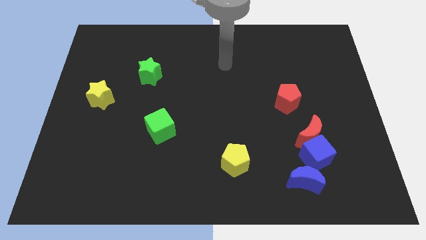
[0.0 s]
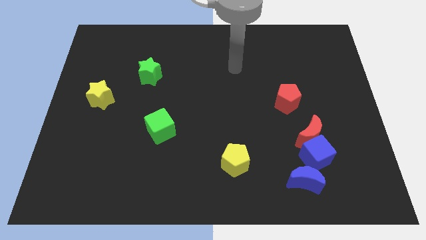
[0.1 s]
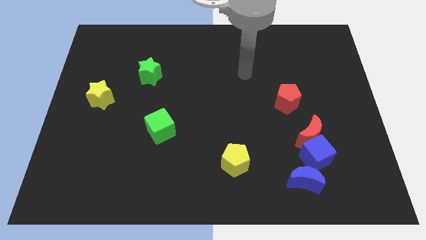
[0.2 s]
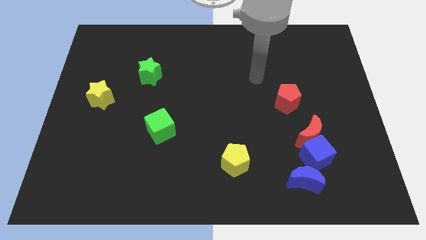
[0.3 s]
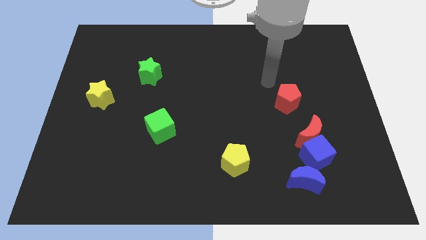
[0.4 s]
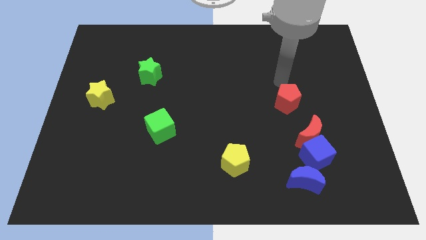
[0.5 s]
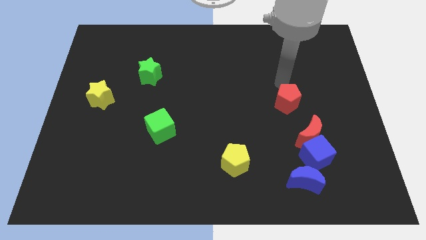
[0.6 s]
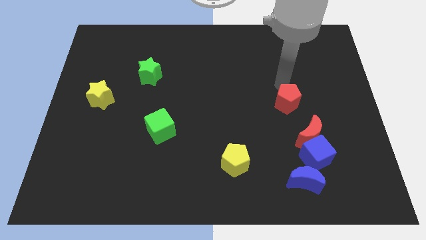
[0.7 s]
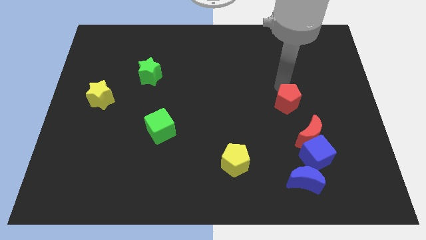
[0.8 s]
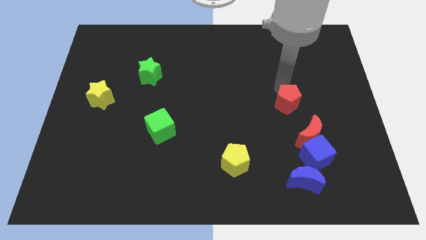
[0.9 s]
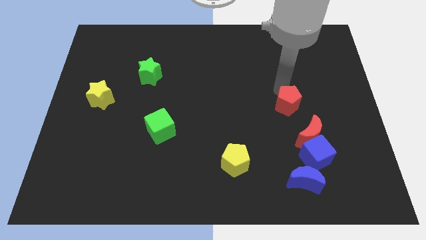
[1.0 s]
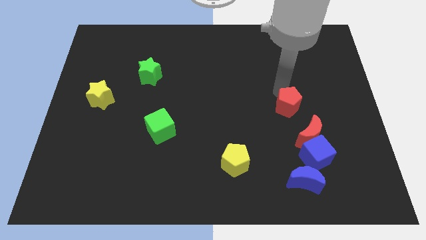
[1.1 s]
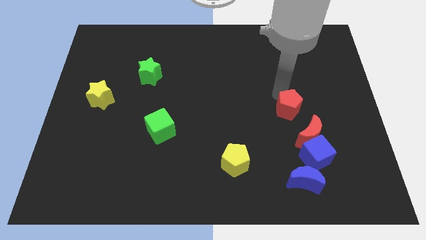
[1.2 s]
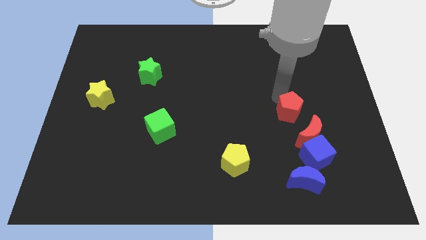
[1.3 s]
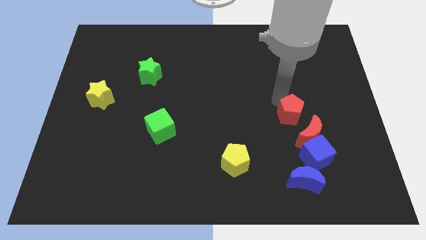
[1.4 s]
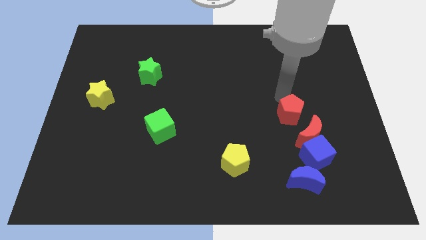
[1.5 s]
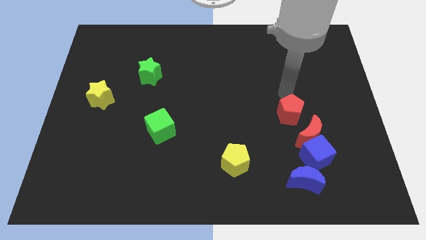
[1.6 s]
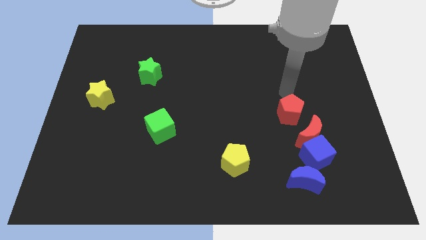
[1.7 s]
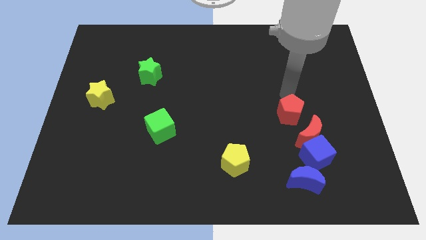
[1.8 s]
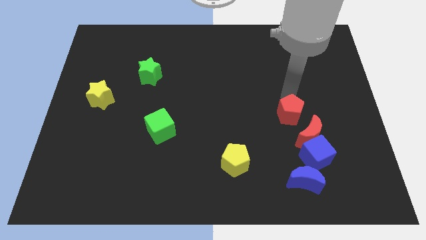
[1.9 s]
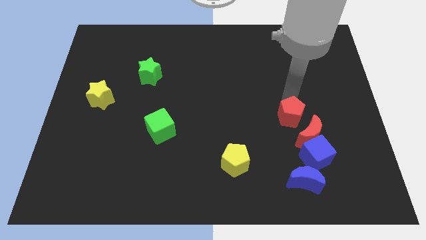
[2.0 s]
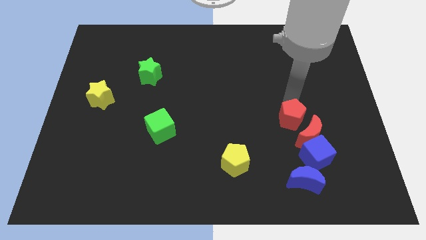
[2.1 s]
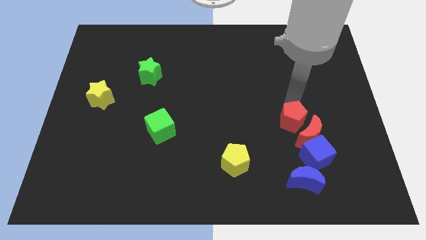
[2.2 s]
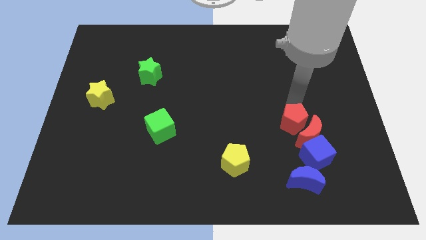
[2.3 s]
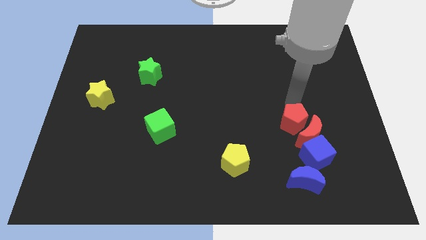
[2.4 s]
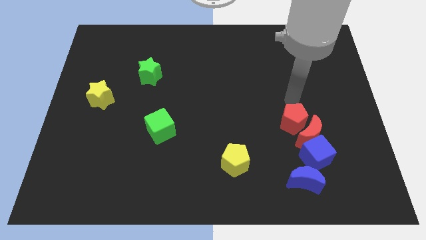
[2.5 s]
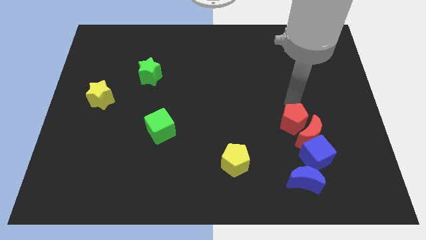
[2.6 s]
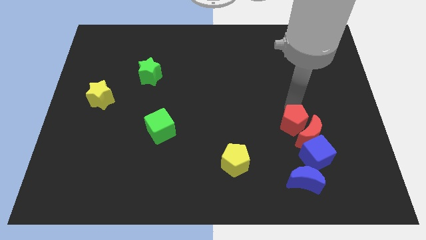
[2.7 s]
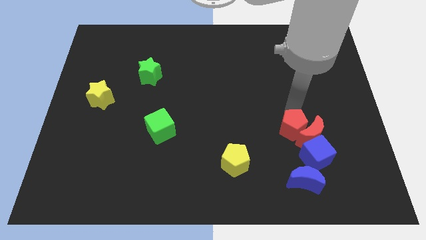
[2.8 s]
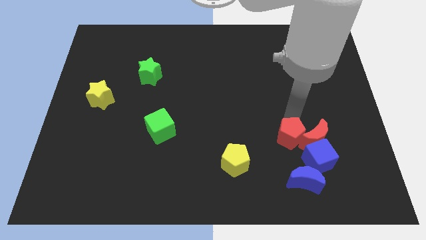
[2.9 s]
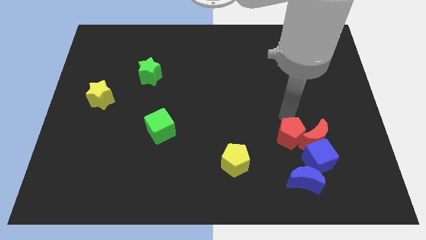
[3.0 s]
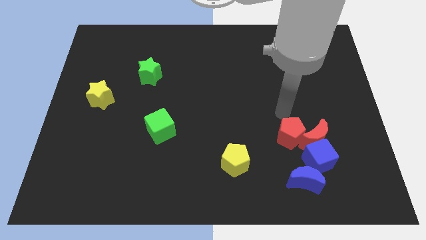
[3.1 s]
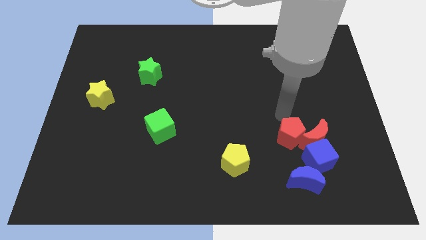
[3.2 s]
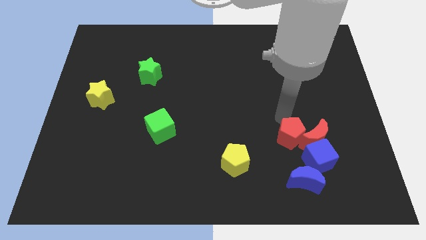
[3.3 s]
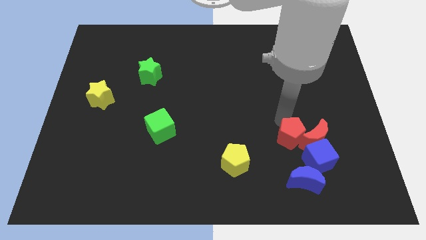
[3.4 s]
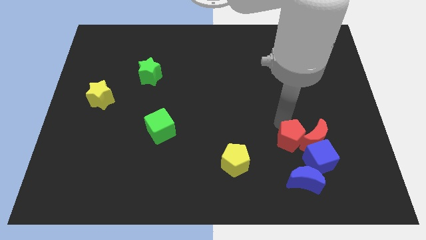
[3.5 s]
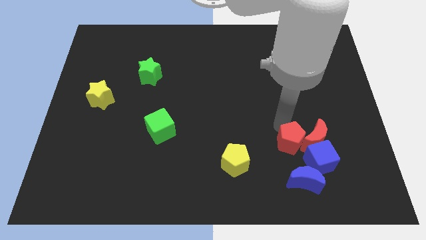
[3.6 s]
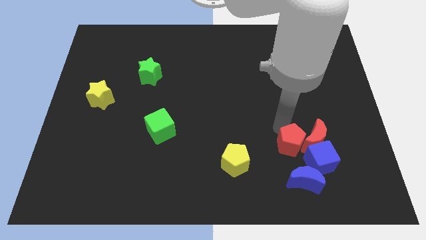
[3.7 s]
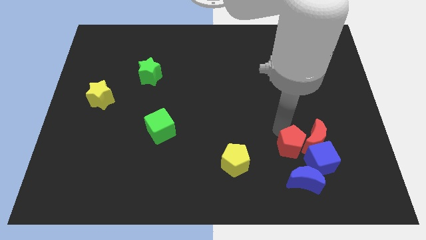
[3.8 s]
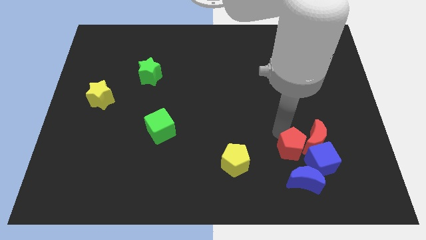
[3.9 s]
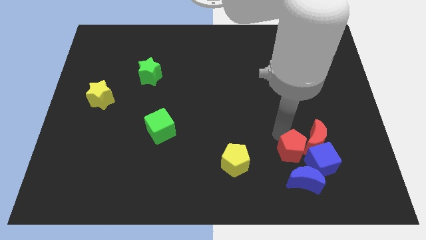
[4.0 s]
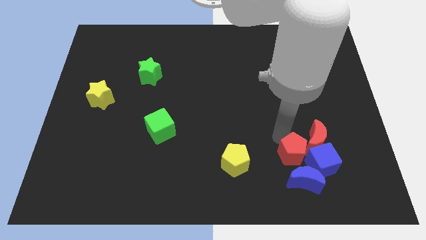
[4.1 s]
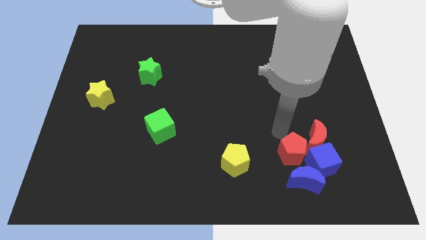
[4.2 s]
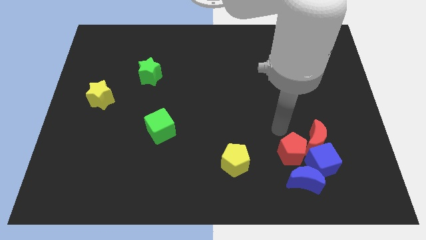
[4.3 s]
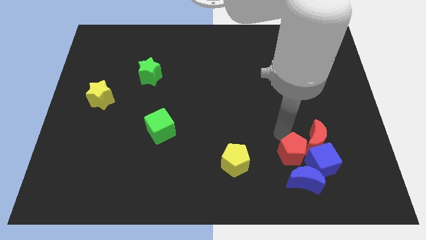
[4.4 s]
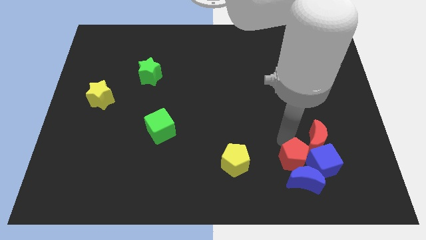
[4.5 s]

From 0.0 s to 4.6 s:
move the red pentagon towards the blue moon

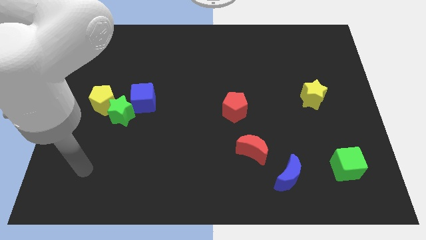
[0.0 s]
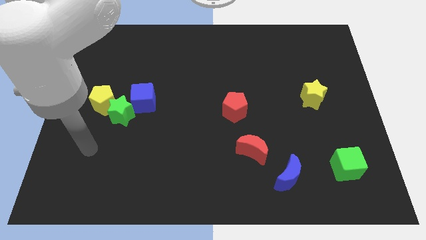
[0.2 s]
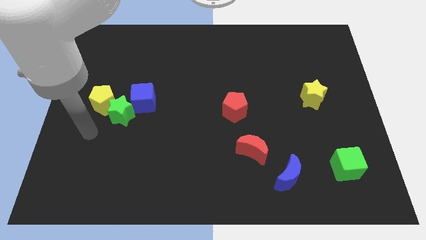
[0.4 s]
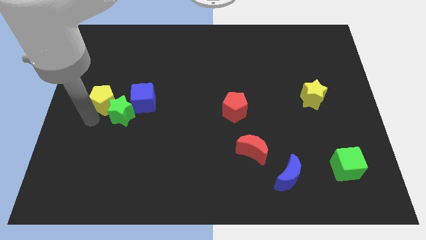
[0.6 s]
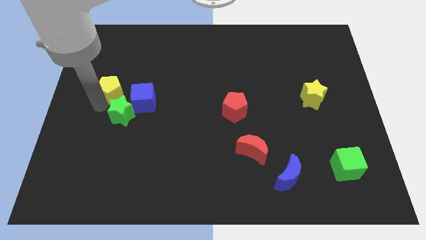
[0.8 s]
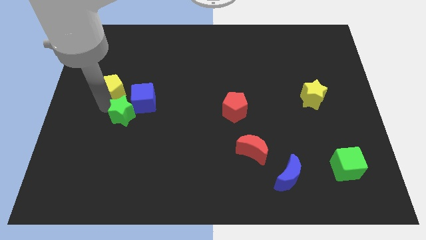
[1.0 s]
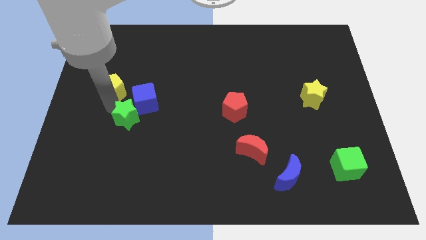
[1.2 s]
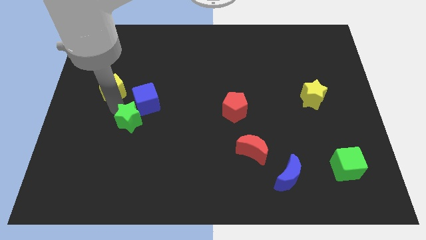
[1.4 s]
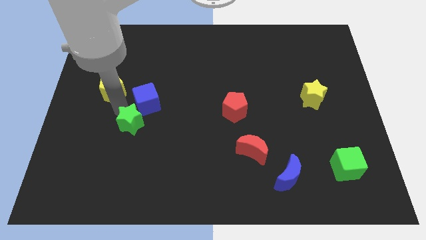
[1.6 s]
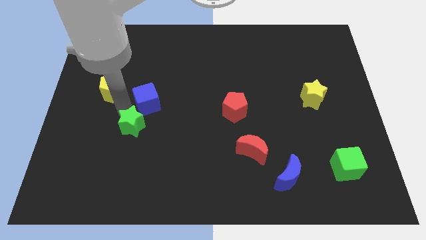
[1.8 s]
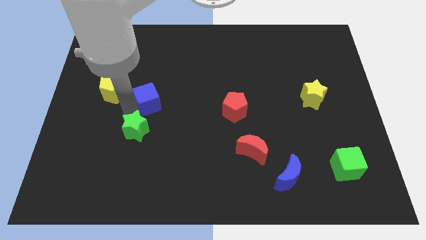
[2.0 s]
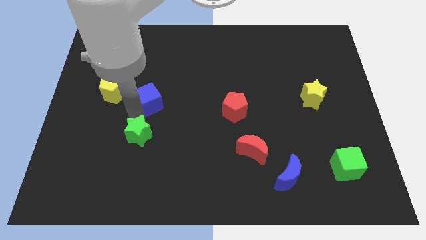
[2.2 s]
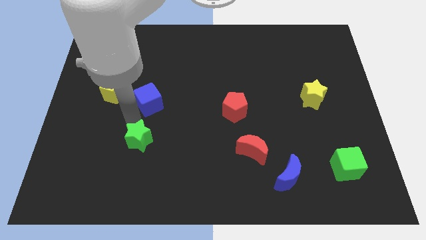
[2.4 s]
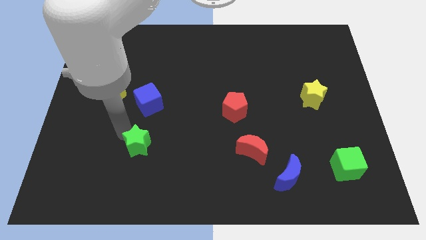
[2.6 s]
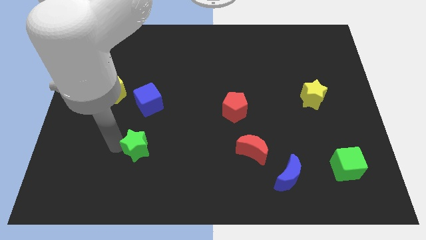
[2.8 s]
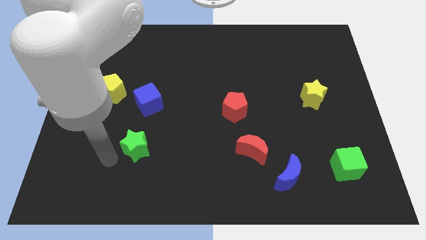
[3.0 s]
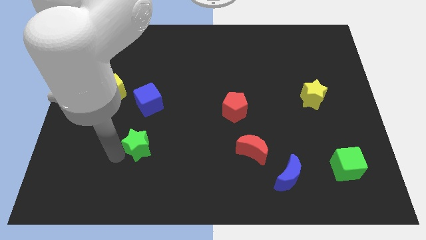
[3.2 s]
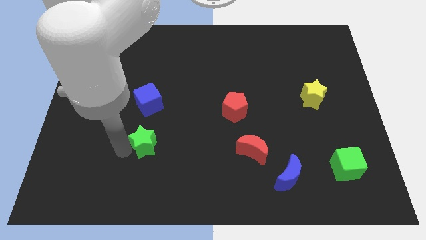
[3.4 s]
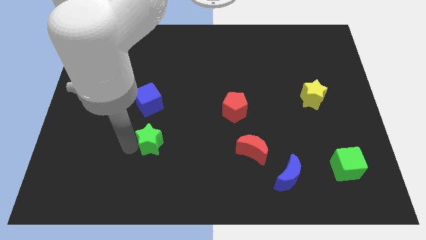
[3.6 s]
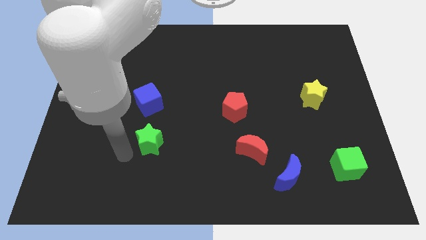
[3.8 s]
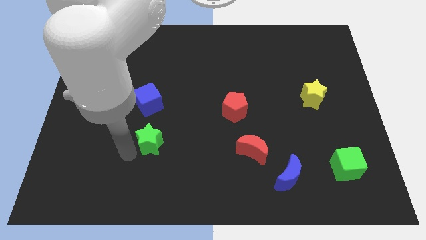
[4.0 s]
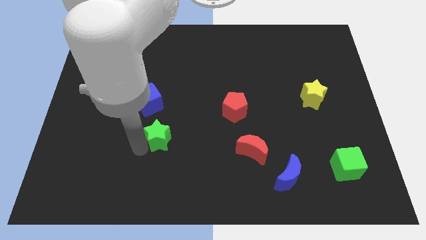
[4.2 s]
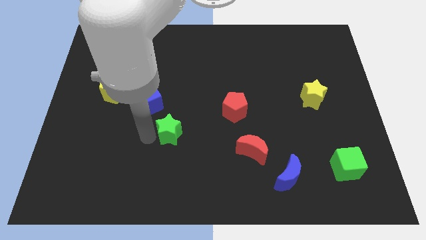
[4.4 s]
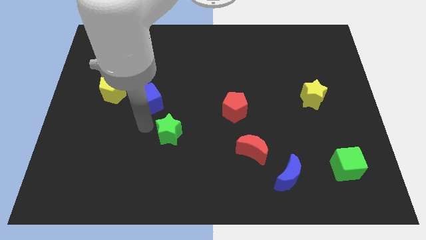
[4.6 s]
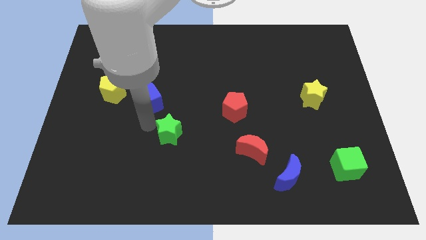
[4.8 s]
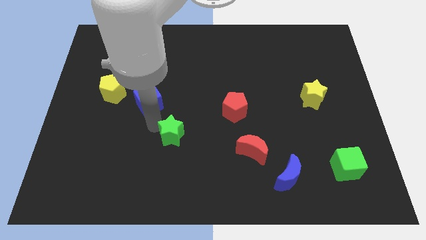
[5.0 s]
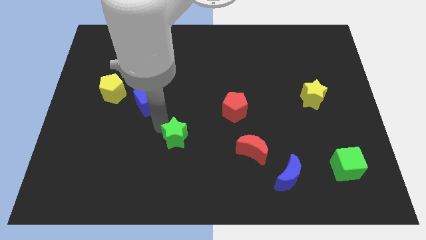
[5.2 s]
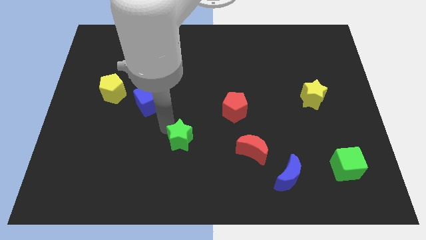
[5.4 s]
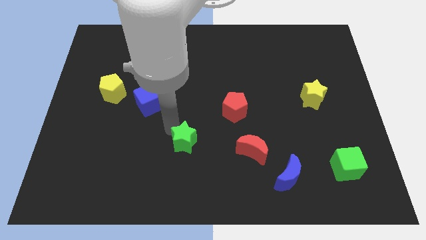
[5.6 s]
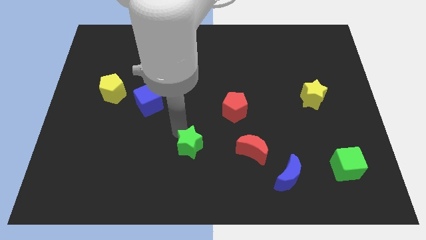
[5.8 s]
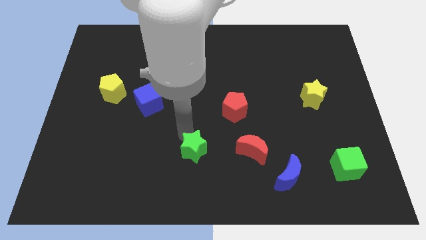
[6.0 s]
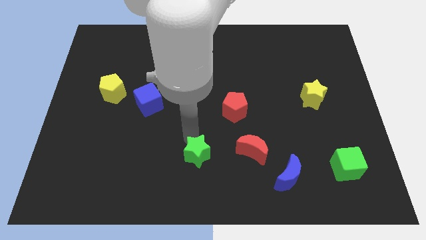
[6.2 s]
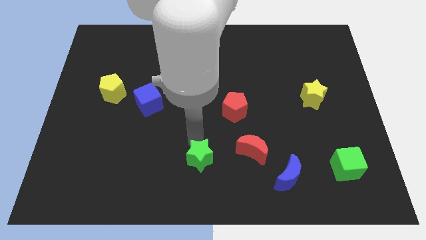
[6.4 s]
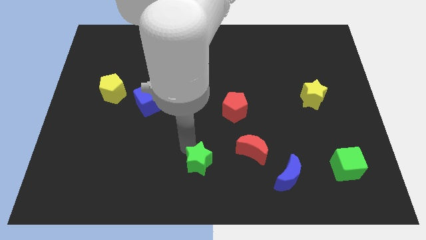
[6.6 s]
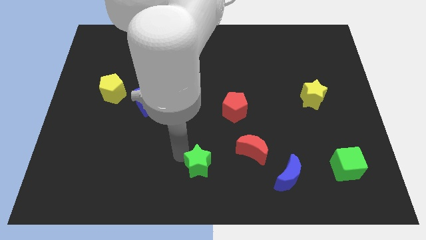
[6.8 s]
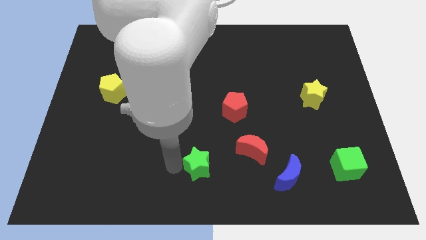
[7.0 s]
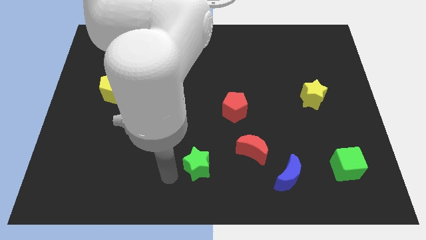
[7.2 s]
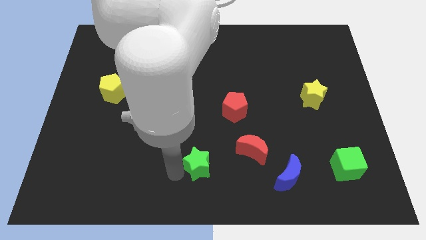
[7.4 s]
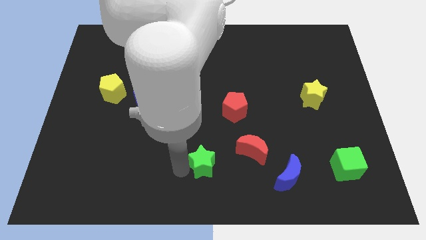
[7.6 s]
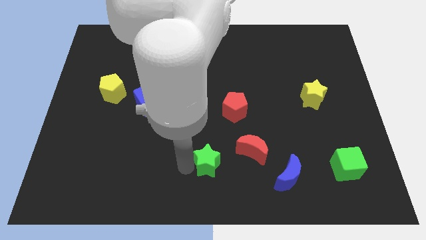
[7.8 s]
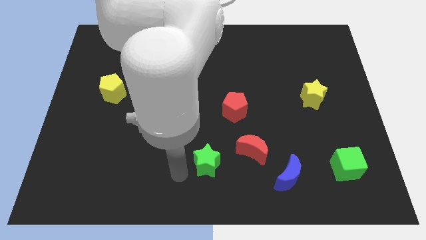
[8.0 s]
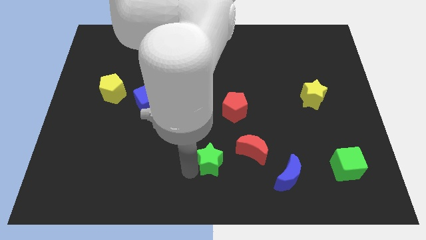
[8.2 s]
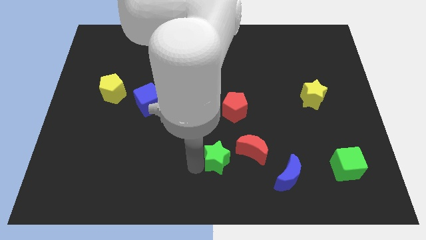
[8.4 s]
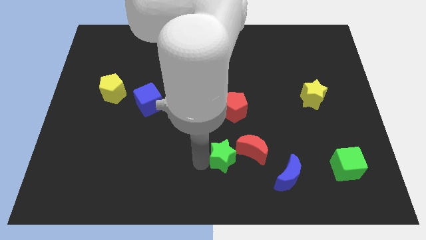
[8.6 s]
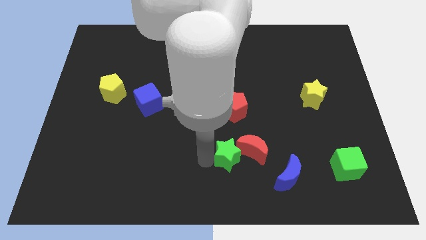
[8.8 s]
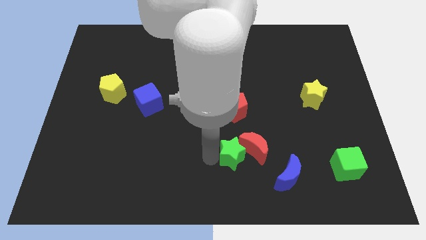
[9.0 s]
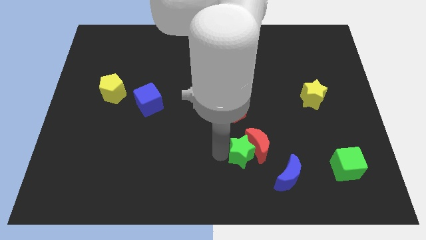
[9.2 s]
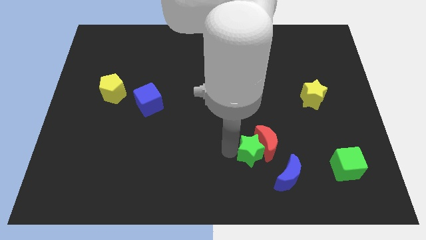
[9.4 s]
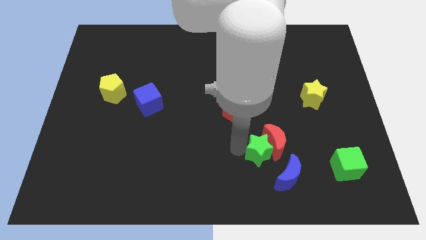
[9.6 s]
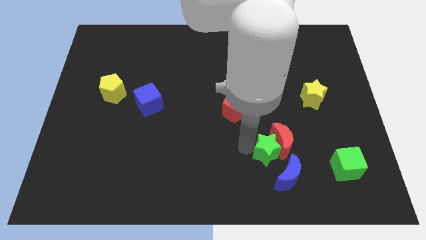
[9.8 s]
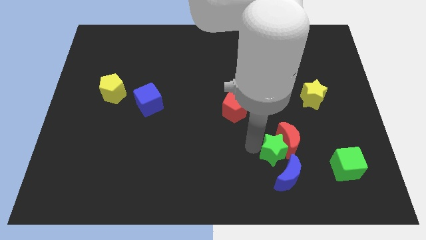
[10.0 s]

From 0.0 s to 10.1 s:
move the green star next to the blue moon
